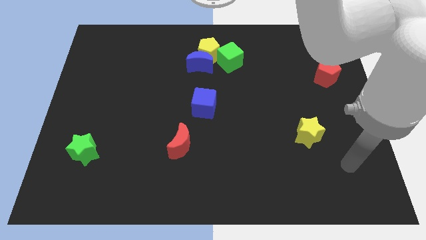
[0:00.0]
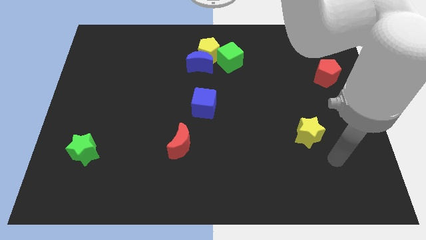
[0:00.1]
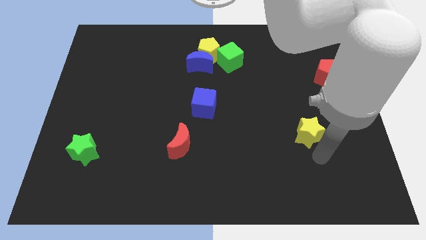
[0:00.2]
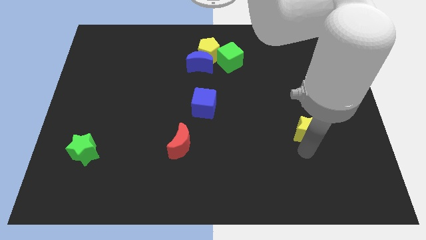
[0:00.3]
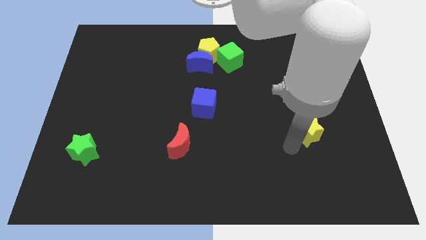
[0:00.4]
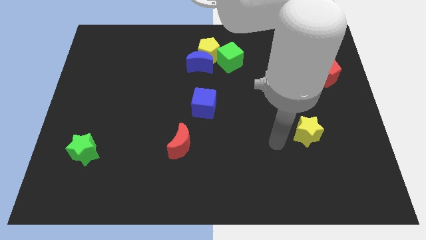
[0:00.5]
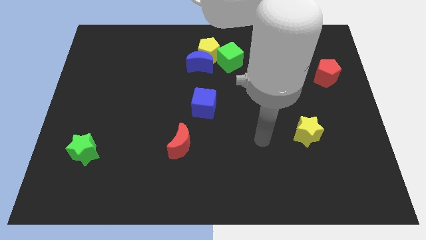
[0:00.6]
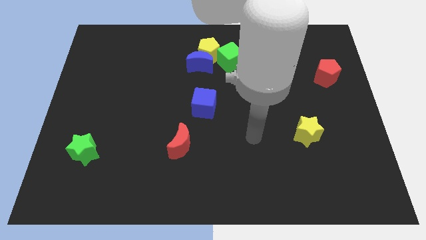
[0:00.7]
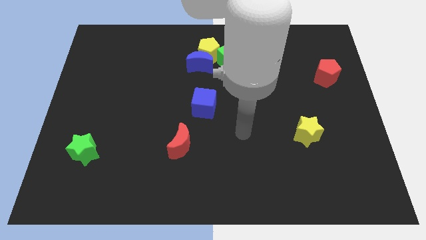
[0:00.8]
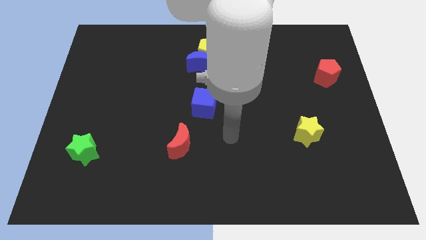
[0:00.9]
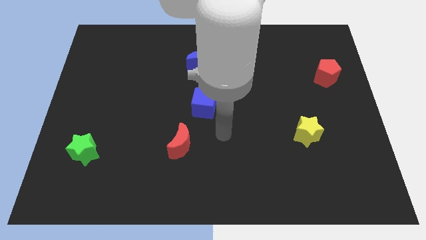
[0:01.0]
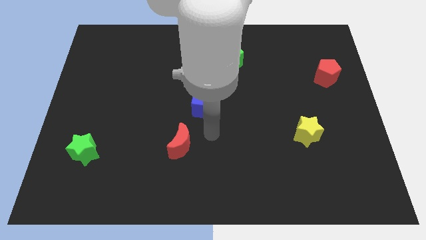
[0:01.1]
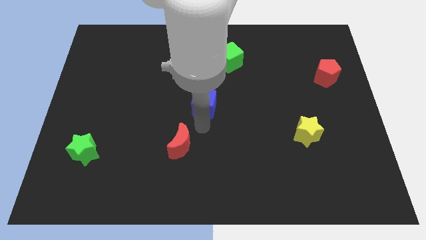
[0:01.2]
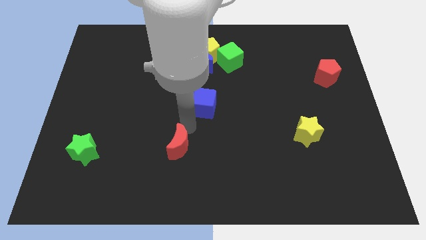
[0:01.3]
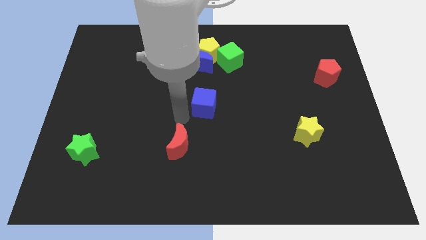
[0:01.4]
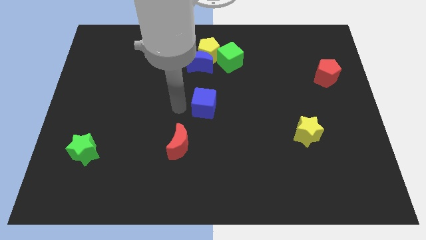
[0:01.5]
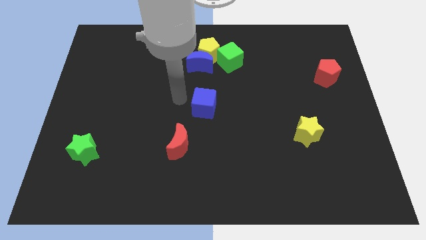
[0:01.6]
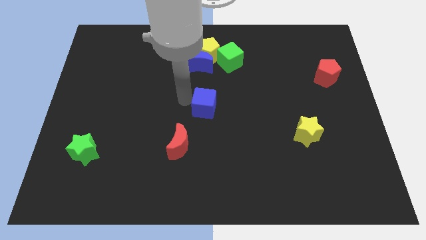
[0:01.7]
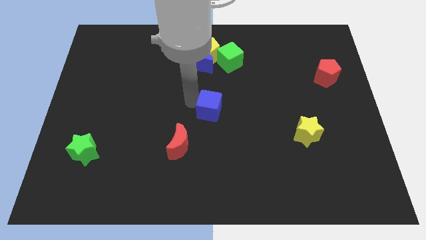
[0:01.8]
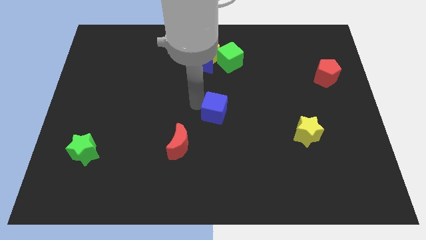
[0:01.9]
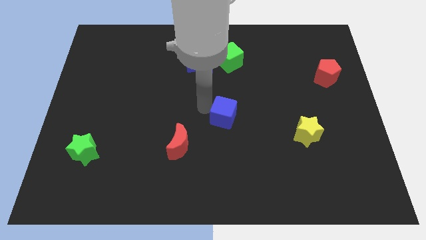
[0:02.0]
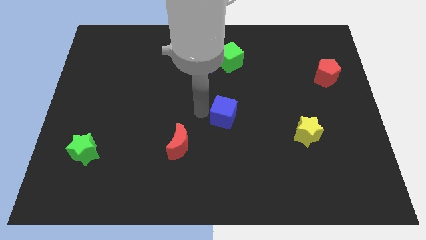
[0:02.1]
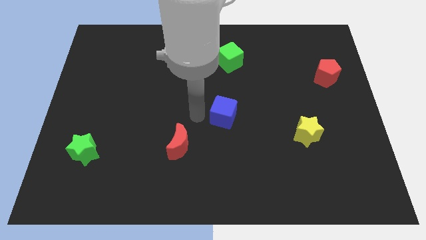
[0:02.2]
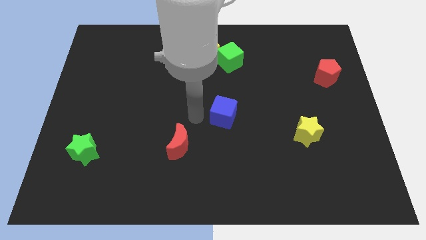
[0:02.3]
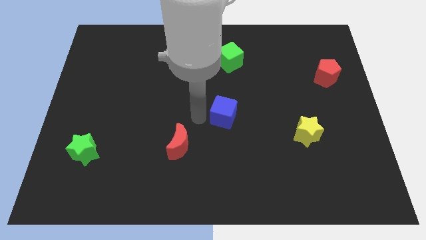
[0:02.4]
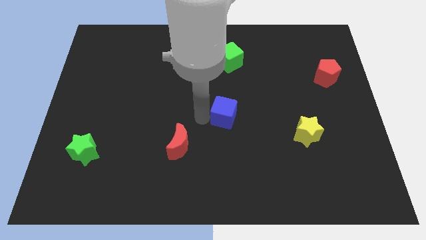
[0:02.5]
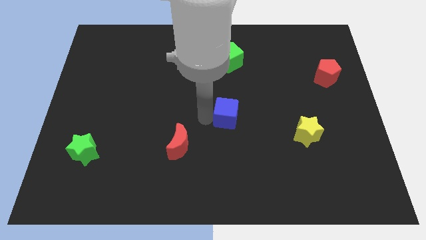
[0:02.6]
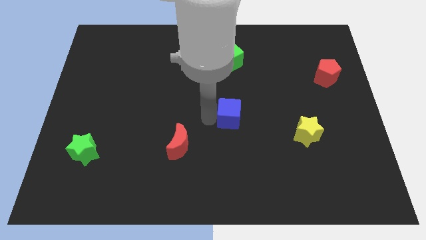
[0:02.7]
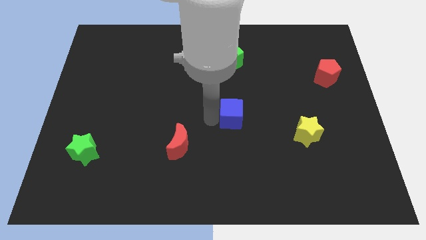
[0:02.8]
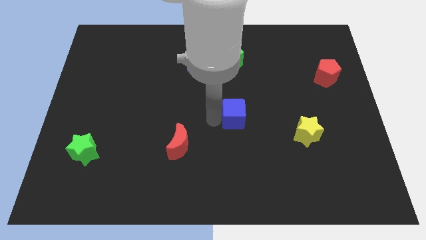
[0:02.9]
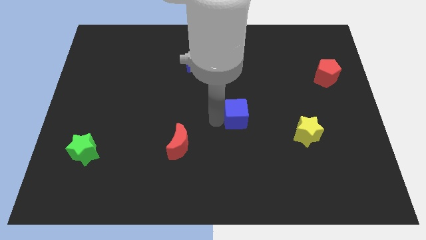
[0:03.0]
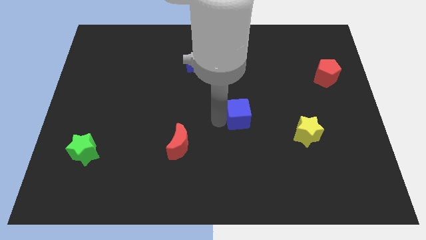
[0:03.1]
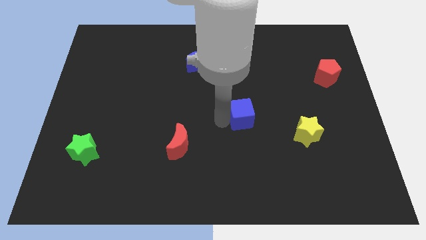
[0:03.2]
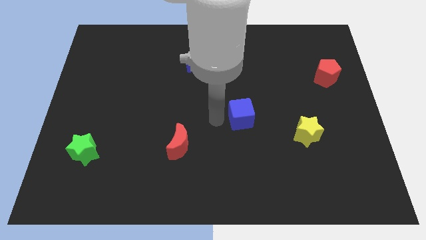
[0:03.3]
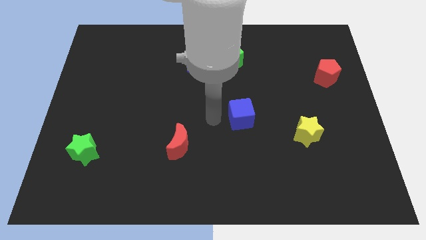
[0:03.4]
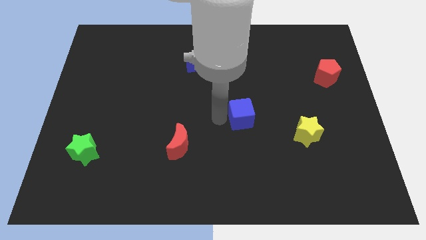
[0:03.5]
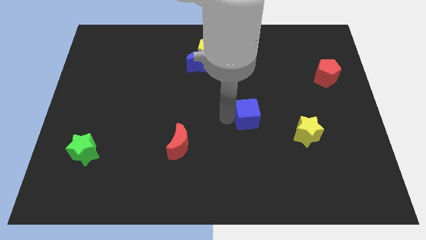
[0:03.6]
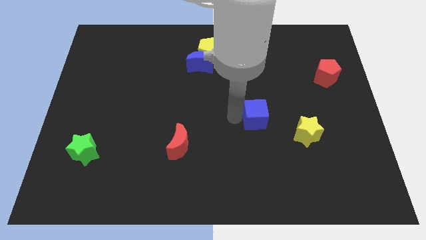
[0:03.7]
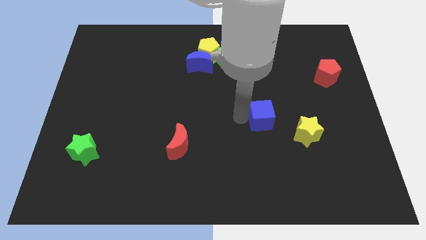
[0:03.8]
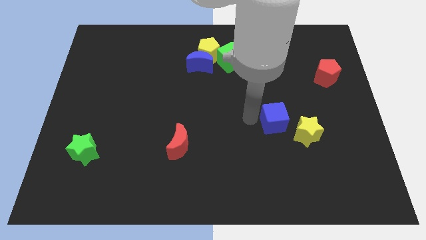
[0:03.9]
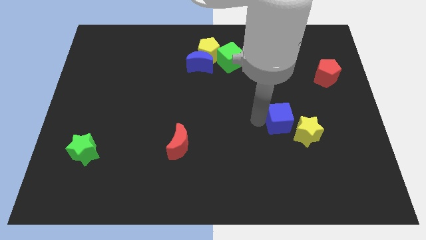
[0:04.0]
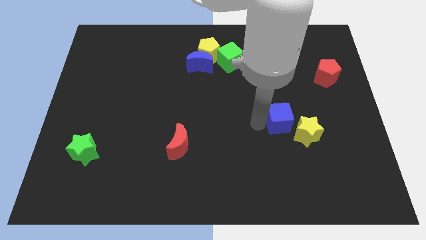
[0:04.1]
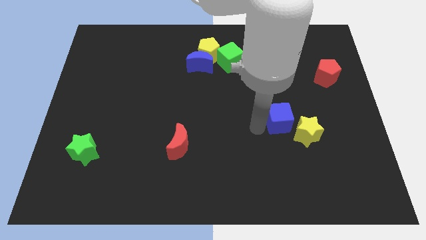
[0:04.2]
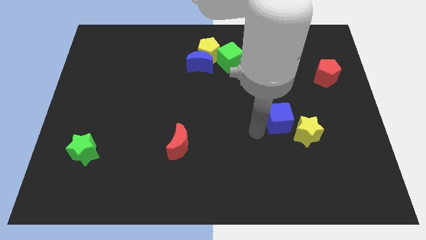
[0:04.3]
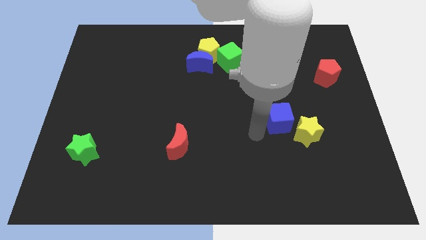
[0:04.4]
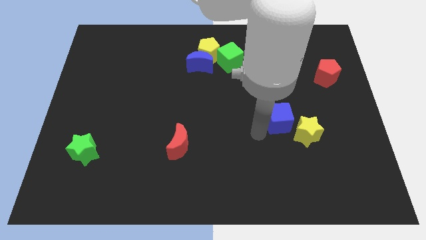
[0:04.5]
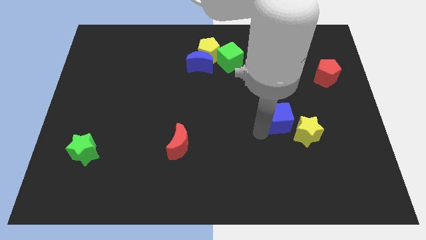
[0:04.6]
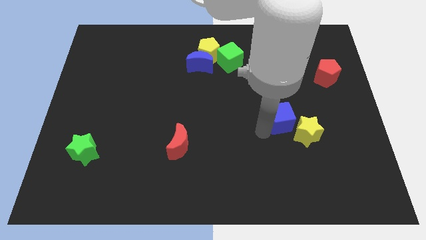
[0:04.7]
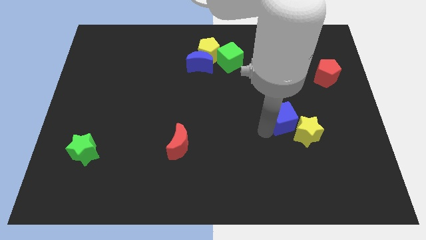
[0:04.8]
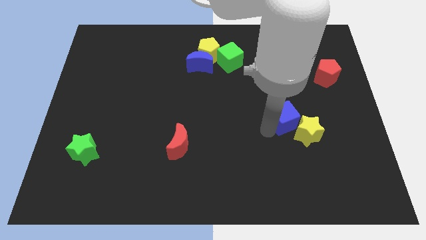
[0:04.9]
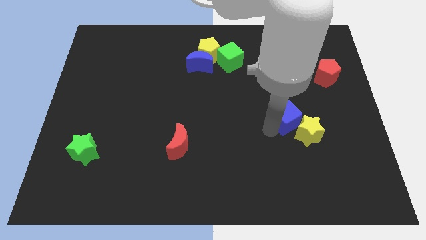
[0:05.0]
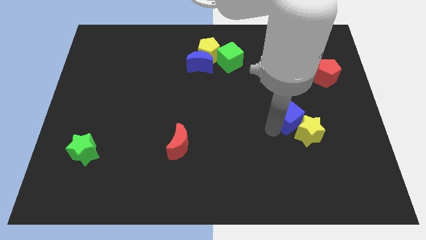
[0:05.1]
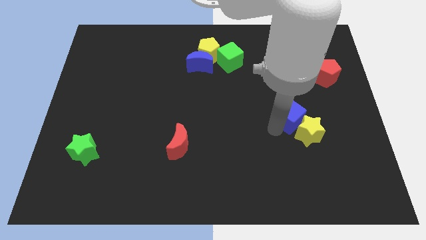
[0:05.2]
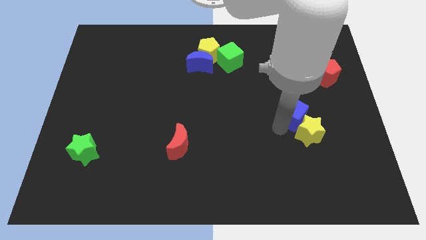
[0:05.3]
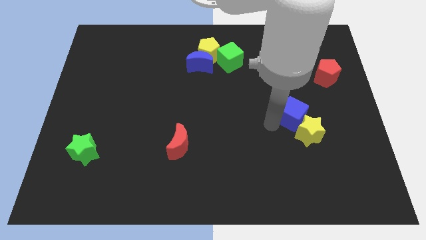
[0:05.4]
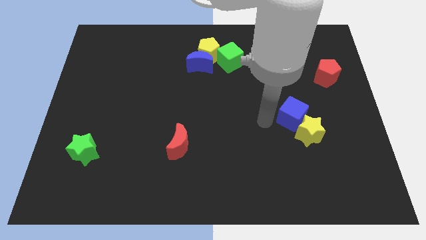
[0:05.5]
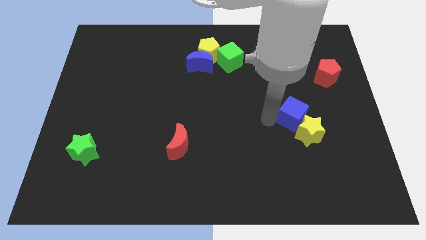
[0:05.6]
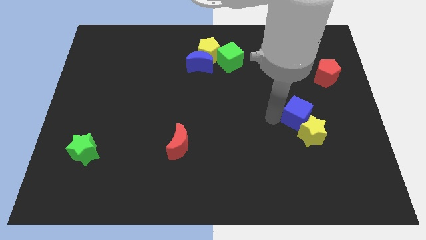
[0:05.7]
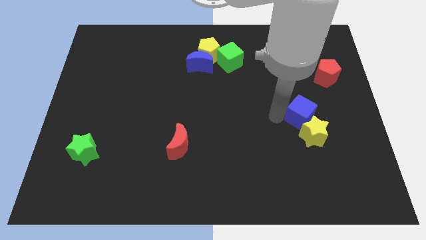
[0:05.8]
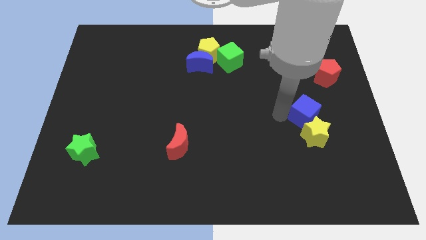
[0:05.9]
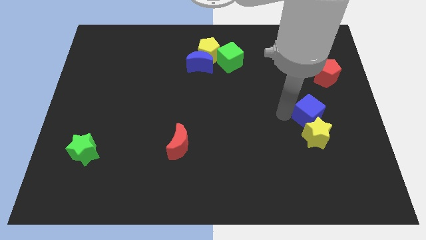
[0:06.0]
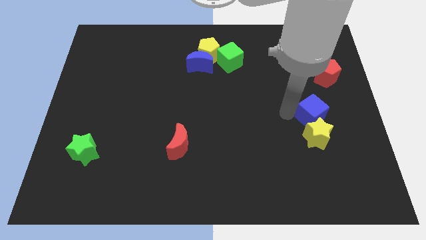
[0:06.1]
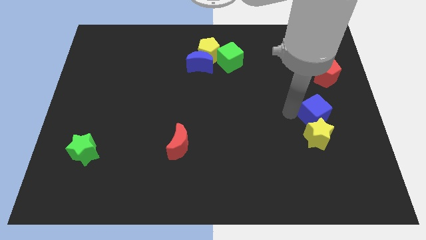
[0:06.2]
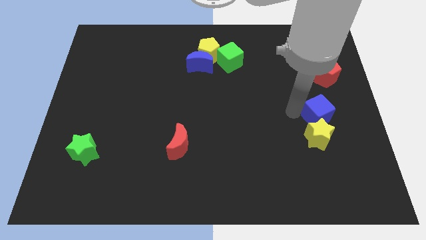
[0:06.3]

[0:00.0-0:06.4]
put the blue cube to the bottom side of the red pentagon

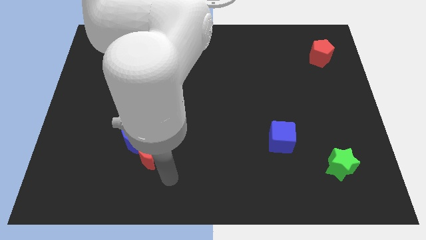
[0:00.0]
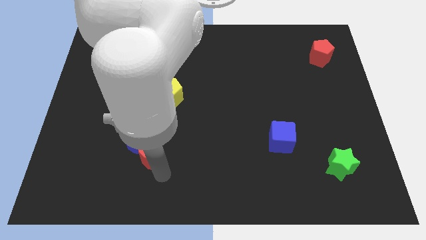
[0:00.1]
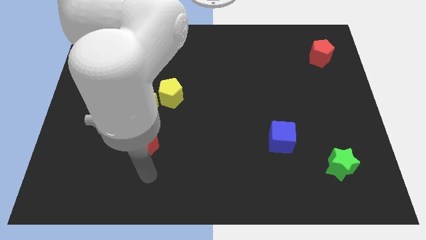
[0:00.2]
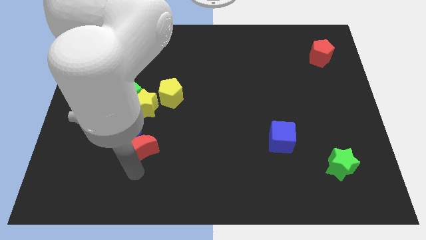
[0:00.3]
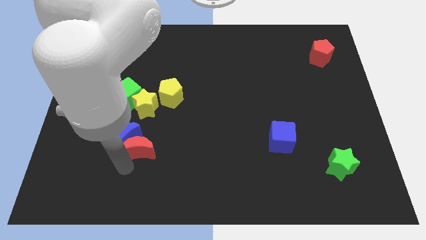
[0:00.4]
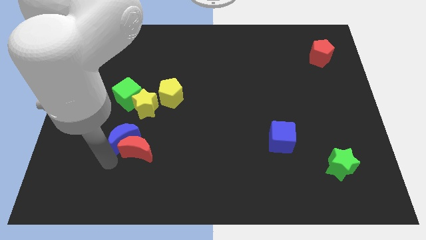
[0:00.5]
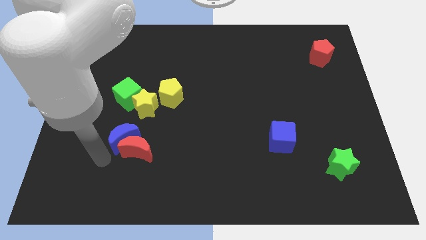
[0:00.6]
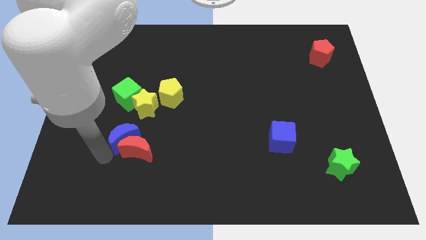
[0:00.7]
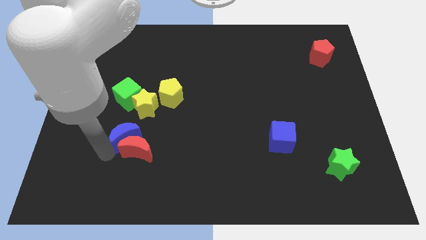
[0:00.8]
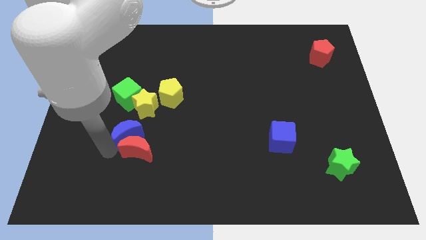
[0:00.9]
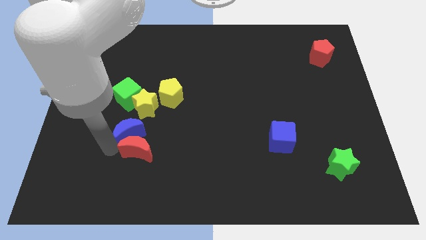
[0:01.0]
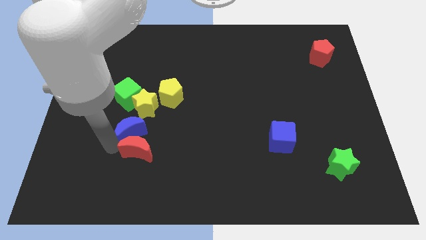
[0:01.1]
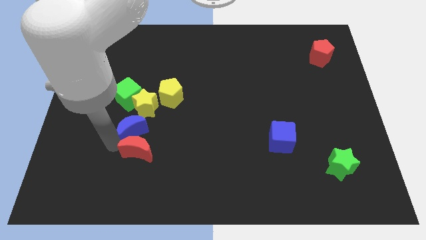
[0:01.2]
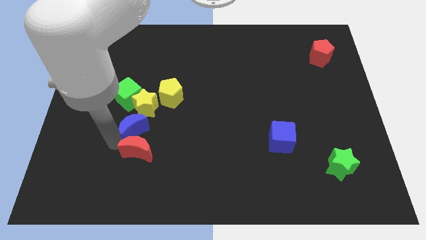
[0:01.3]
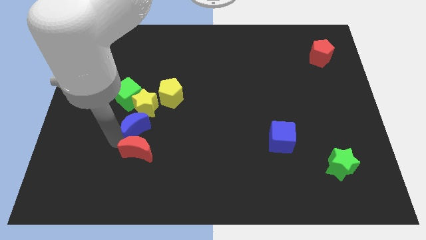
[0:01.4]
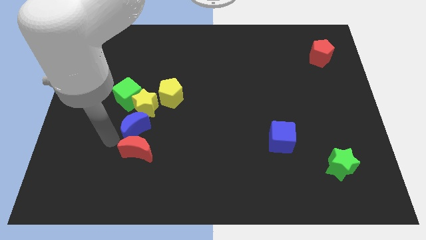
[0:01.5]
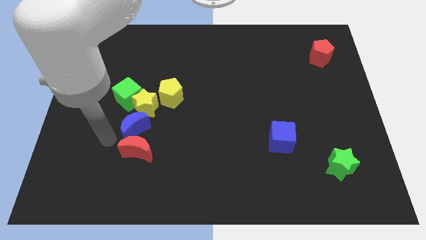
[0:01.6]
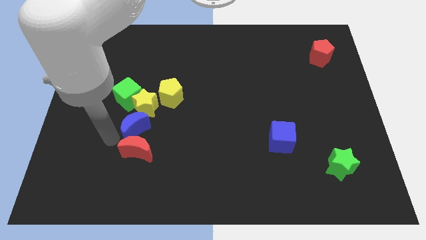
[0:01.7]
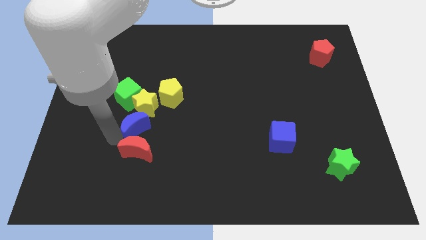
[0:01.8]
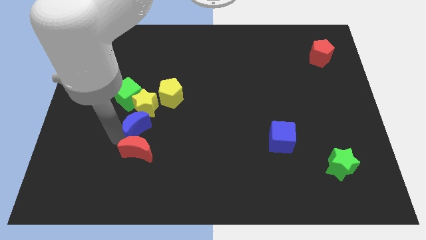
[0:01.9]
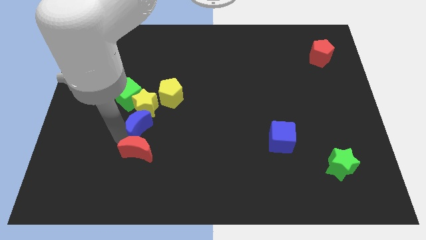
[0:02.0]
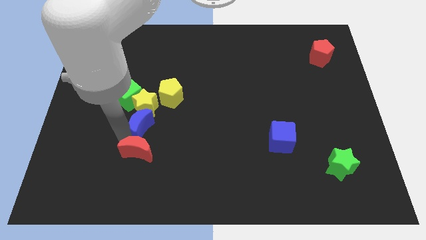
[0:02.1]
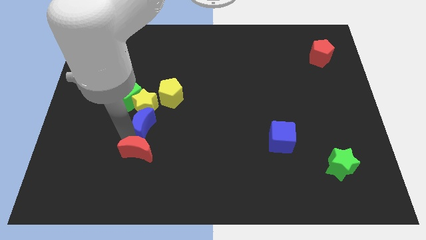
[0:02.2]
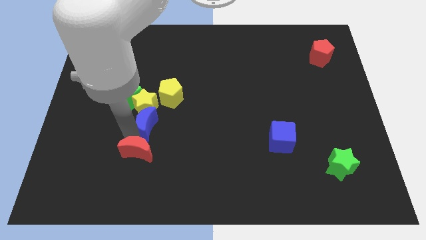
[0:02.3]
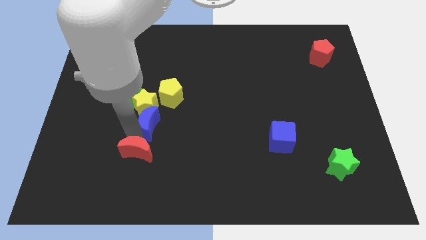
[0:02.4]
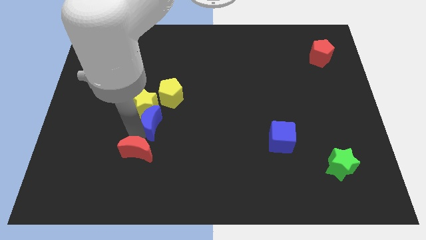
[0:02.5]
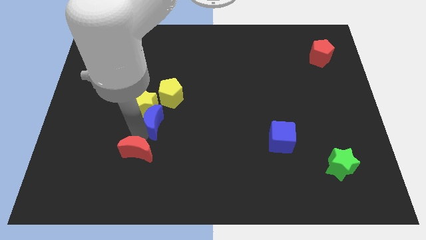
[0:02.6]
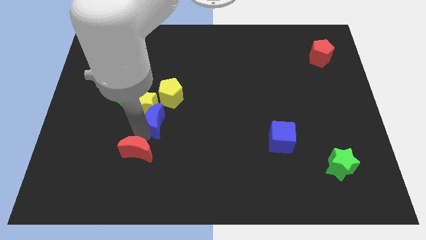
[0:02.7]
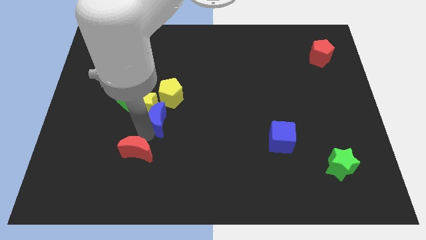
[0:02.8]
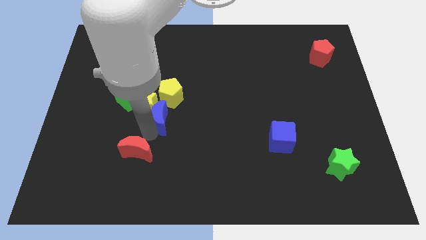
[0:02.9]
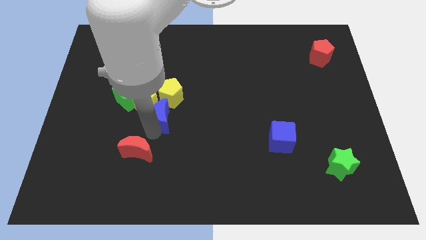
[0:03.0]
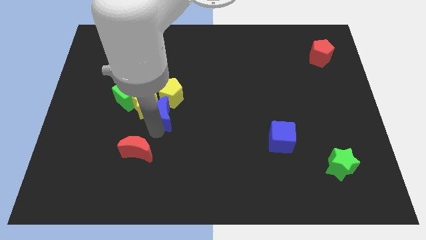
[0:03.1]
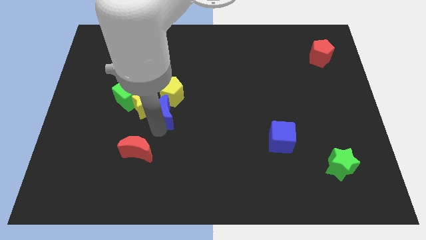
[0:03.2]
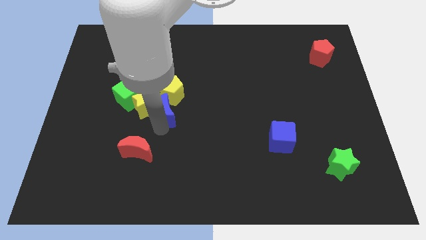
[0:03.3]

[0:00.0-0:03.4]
put the blue moon to the top right of the yellow star
